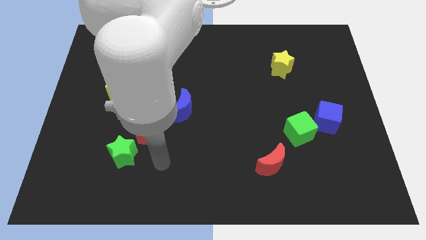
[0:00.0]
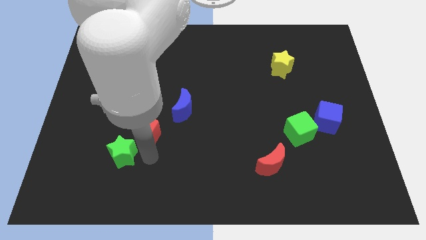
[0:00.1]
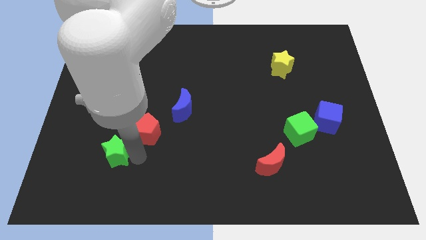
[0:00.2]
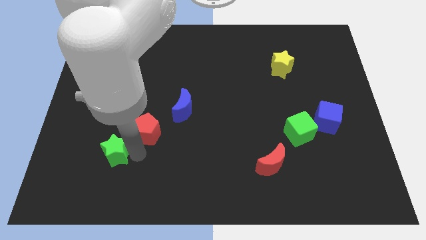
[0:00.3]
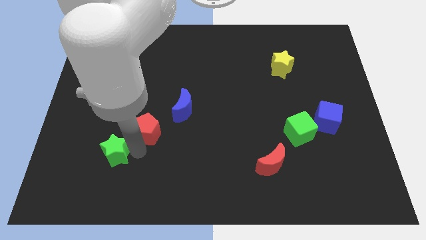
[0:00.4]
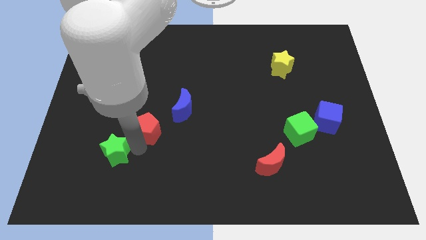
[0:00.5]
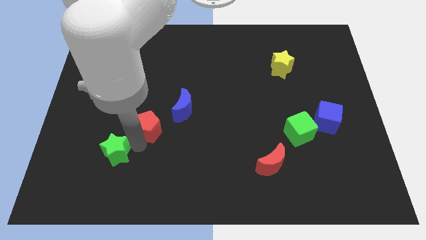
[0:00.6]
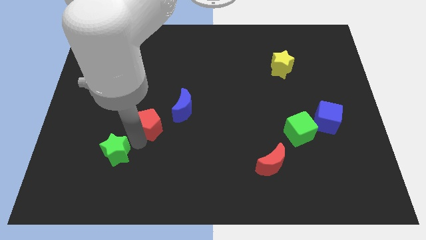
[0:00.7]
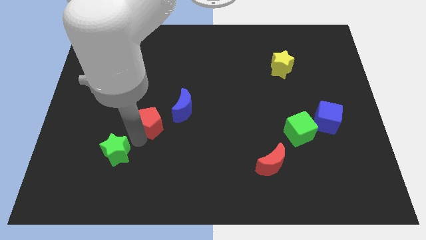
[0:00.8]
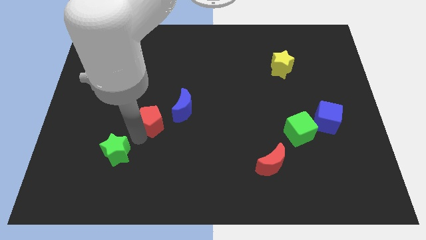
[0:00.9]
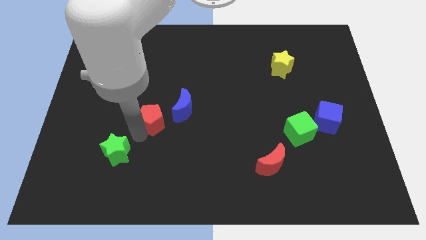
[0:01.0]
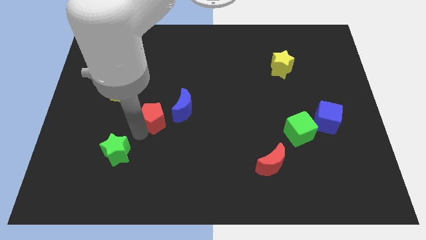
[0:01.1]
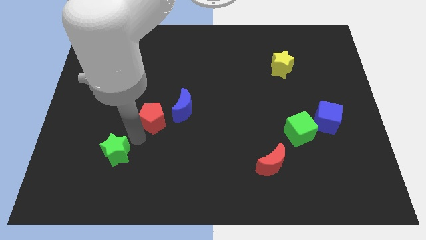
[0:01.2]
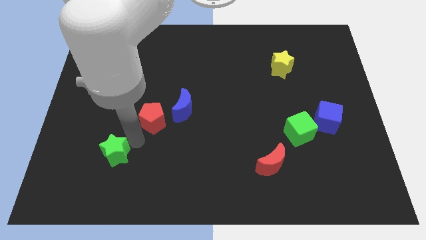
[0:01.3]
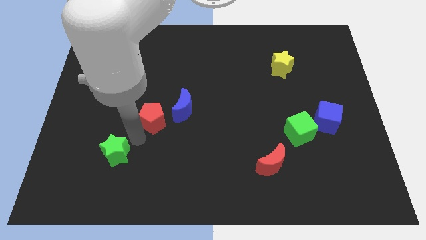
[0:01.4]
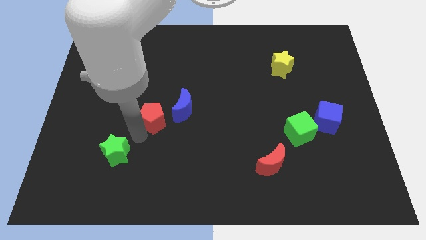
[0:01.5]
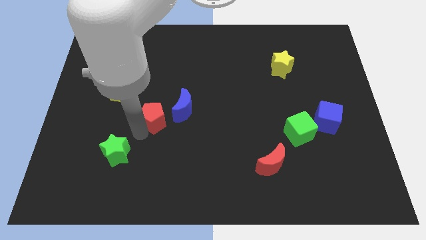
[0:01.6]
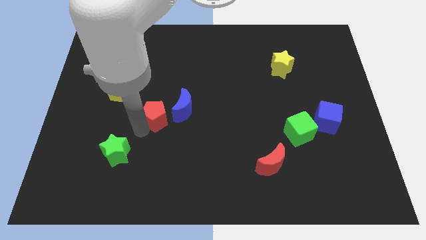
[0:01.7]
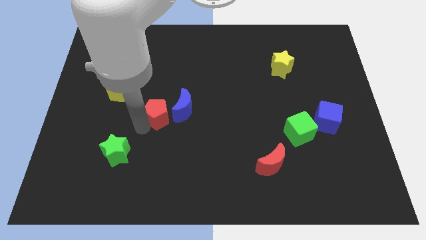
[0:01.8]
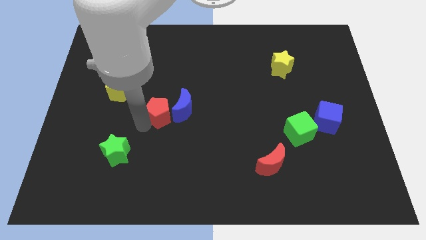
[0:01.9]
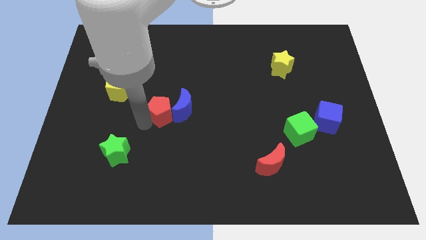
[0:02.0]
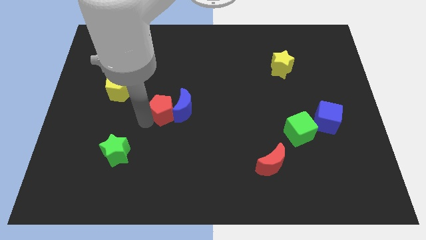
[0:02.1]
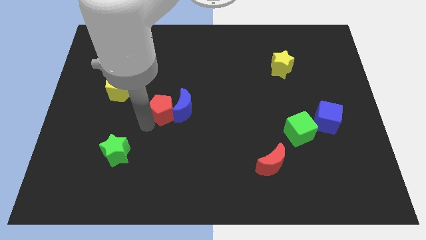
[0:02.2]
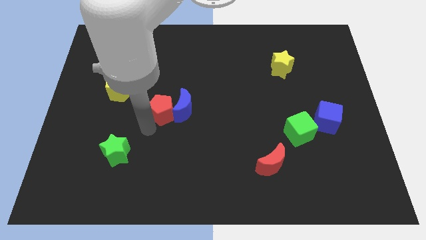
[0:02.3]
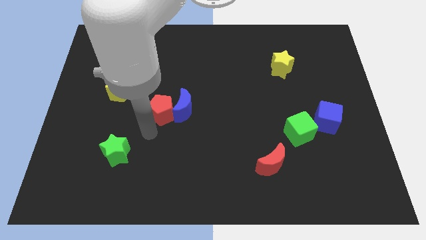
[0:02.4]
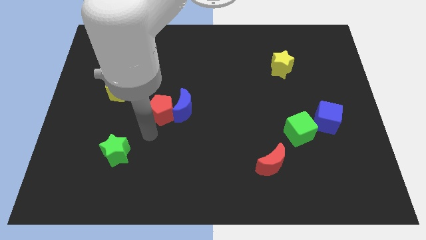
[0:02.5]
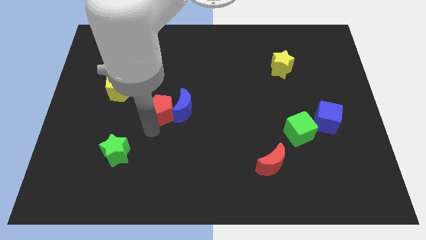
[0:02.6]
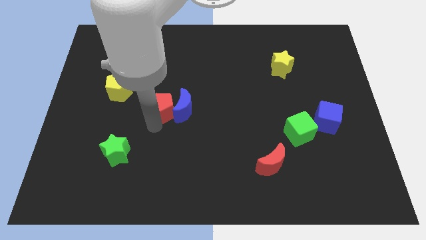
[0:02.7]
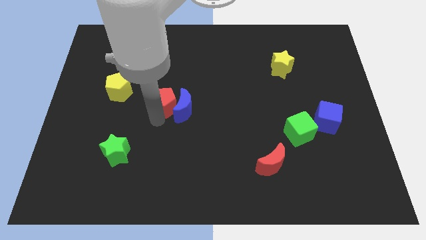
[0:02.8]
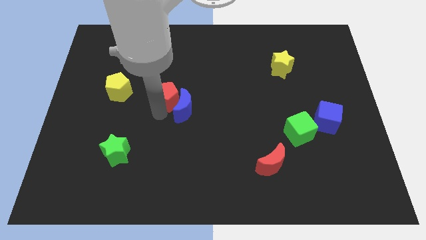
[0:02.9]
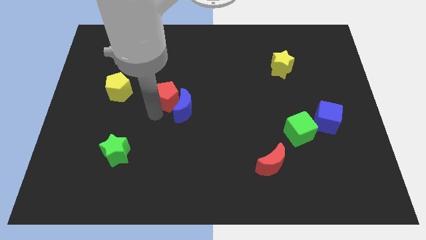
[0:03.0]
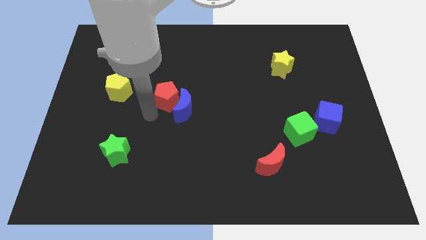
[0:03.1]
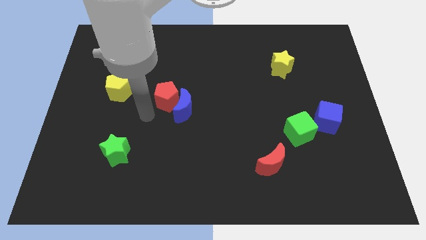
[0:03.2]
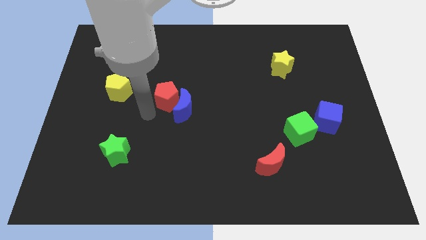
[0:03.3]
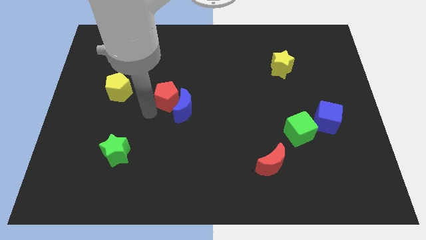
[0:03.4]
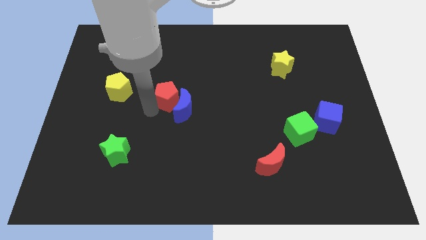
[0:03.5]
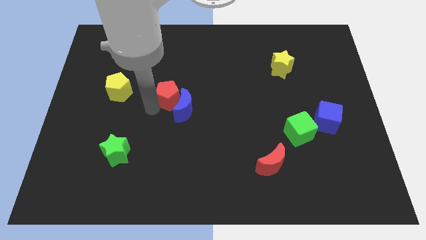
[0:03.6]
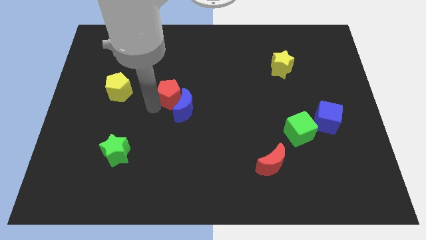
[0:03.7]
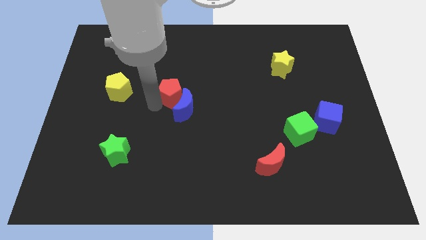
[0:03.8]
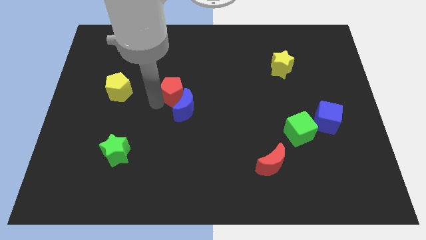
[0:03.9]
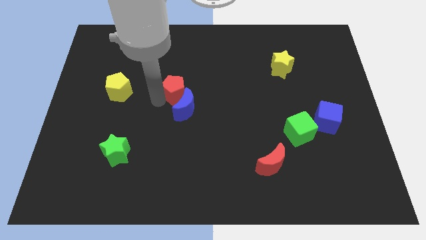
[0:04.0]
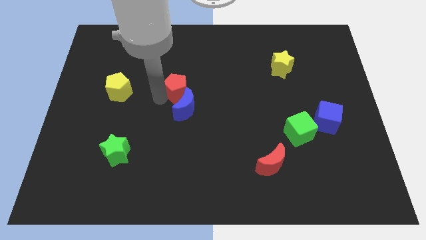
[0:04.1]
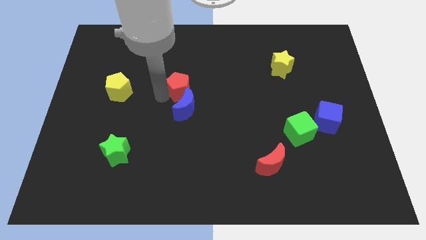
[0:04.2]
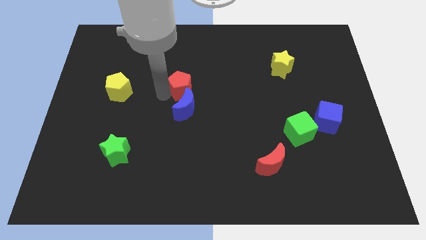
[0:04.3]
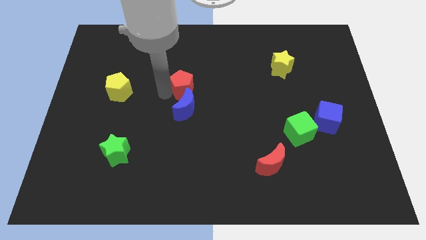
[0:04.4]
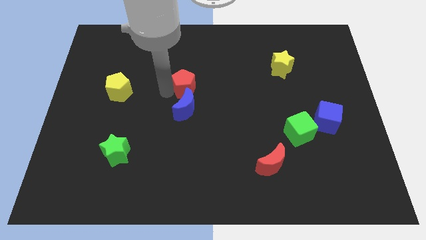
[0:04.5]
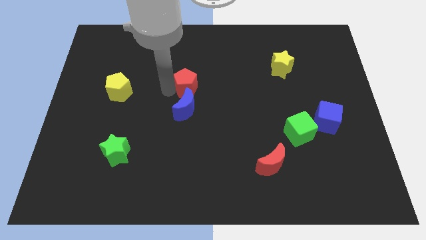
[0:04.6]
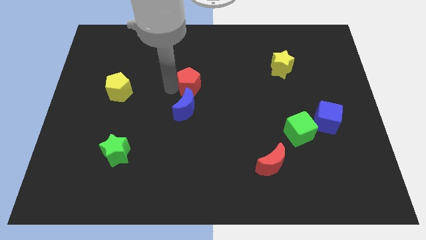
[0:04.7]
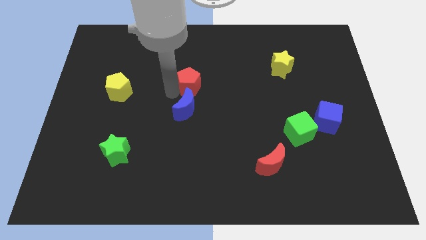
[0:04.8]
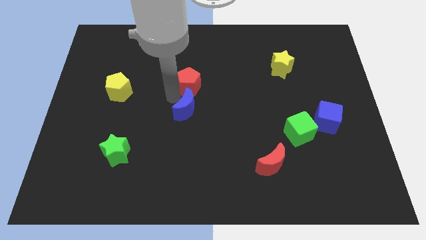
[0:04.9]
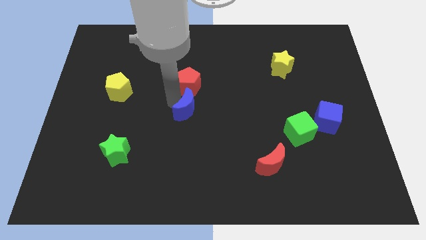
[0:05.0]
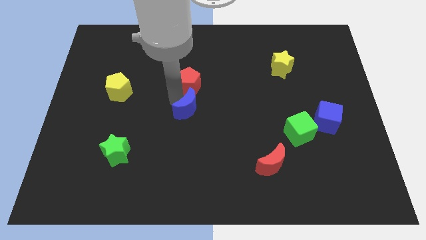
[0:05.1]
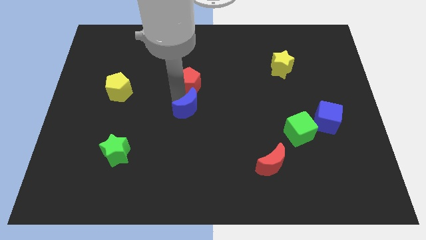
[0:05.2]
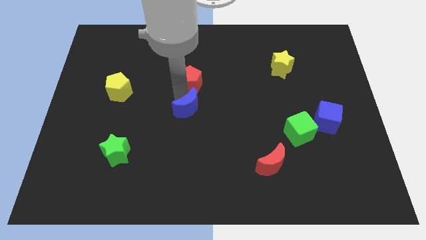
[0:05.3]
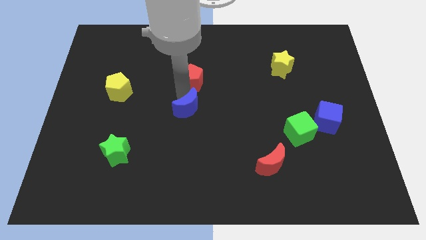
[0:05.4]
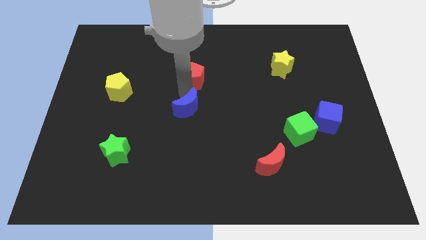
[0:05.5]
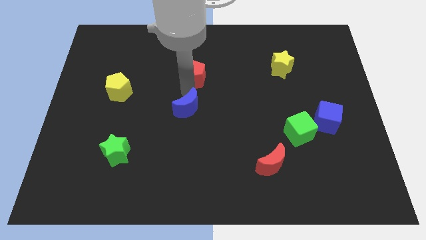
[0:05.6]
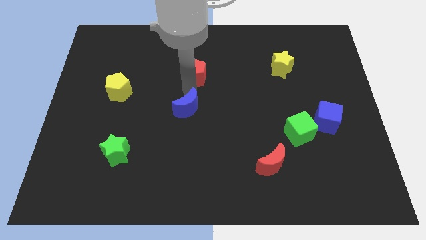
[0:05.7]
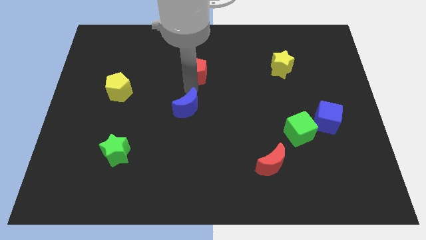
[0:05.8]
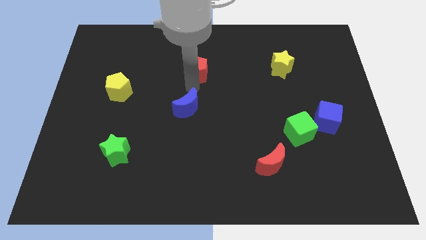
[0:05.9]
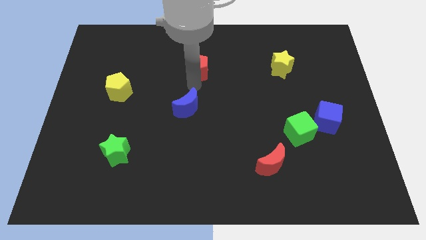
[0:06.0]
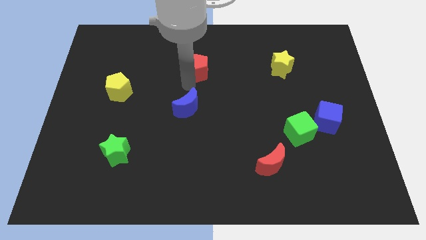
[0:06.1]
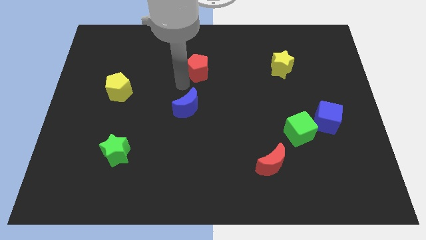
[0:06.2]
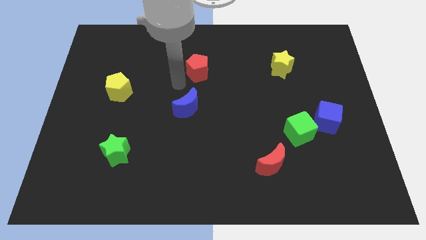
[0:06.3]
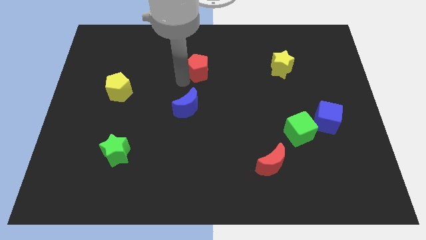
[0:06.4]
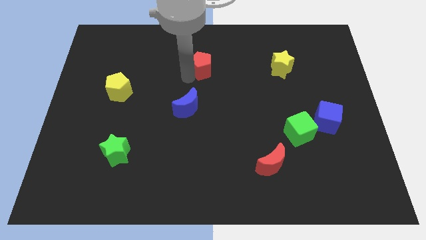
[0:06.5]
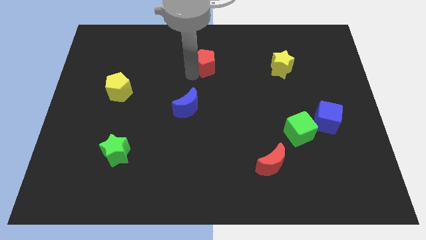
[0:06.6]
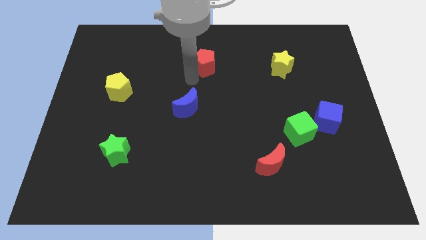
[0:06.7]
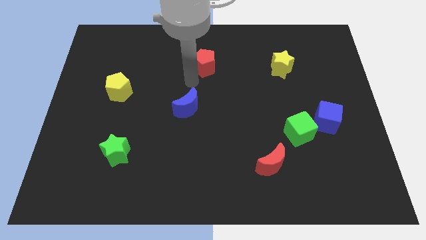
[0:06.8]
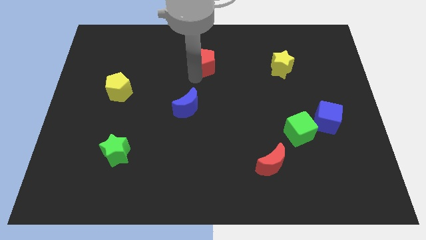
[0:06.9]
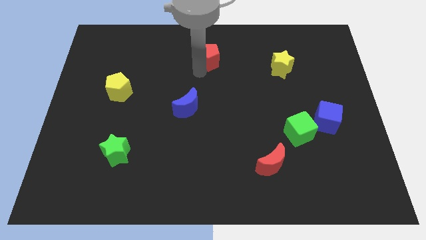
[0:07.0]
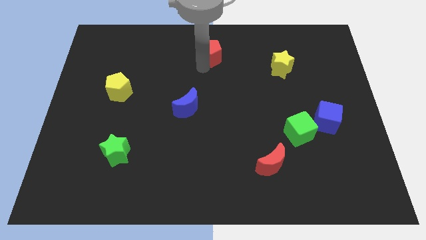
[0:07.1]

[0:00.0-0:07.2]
put the red pentagon to the towards your base
